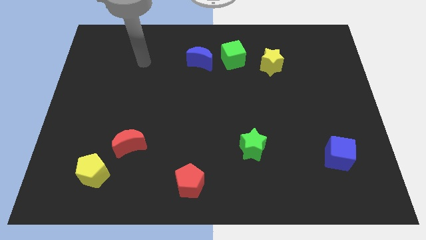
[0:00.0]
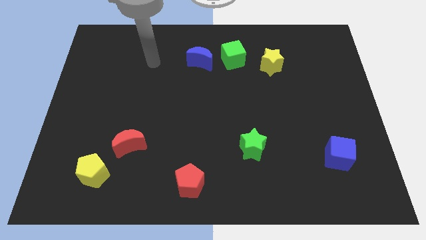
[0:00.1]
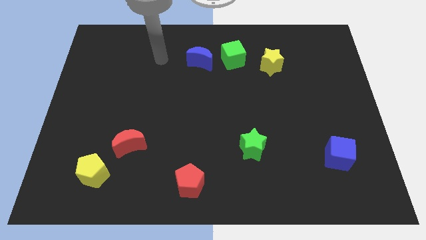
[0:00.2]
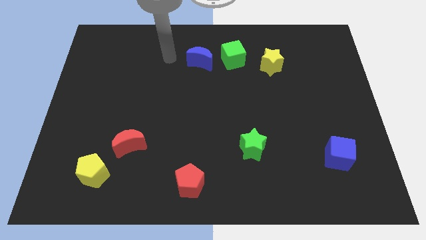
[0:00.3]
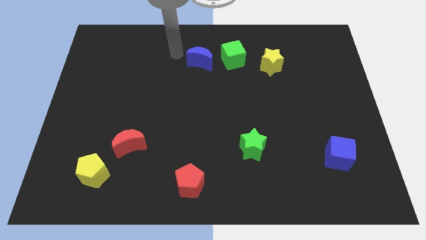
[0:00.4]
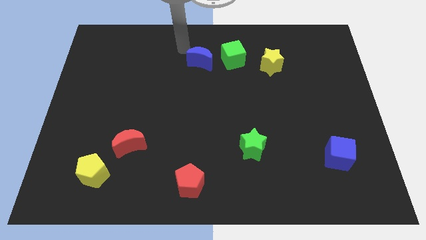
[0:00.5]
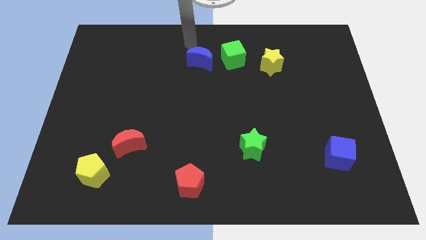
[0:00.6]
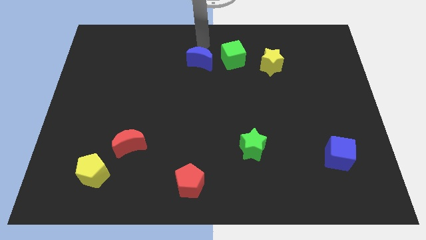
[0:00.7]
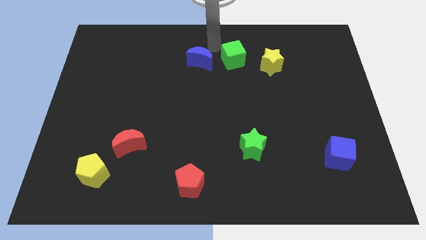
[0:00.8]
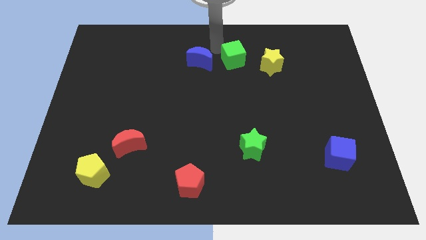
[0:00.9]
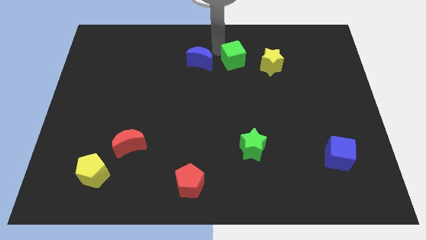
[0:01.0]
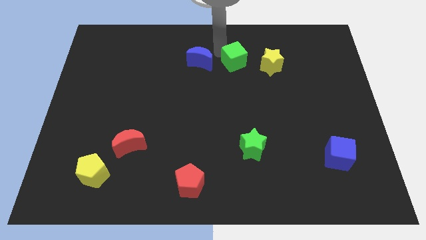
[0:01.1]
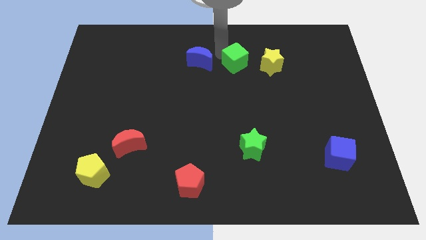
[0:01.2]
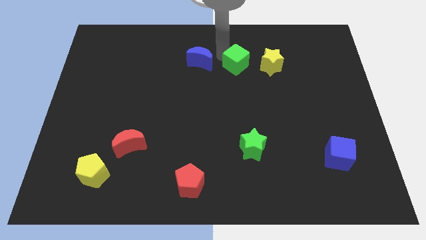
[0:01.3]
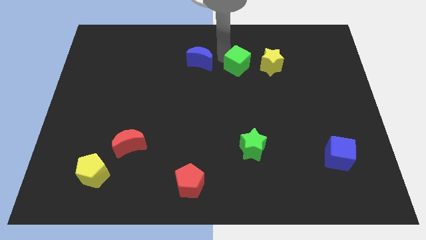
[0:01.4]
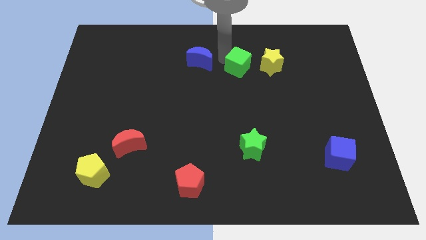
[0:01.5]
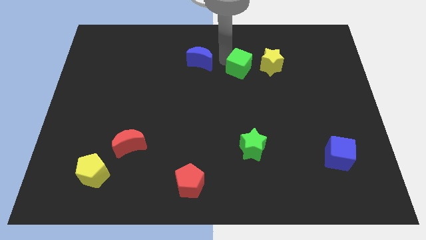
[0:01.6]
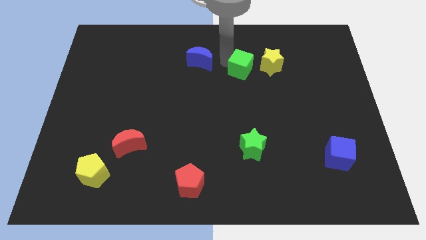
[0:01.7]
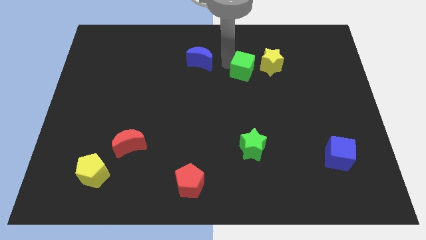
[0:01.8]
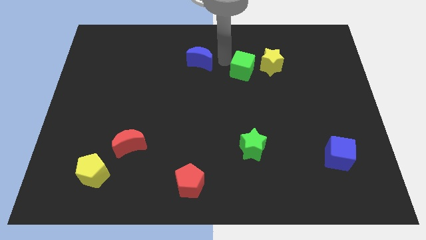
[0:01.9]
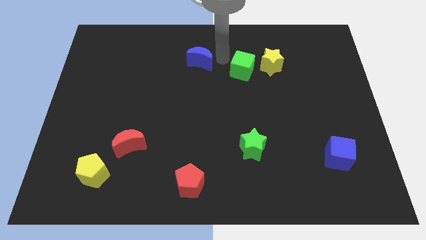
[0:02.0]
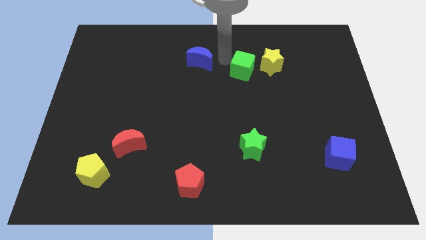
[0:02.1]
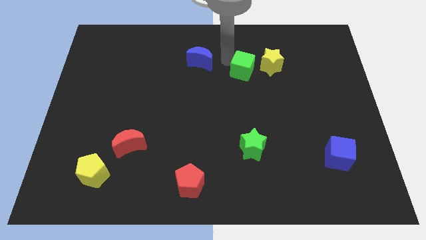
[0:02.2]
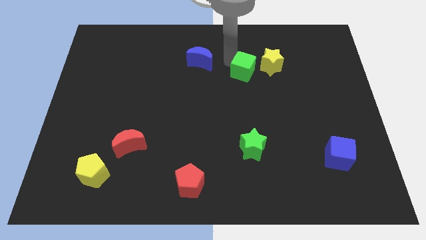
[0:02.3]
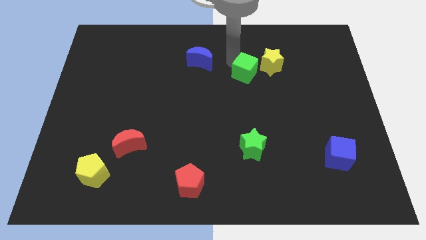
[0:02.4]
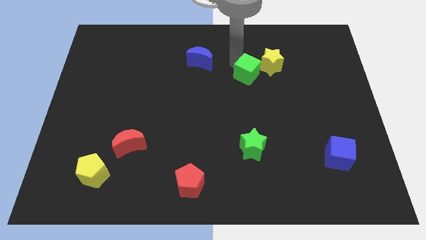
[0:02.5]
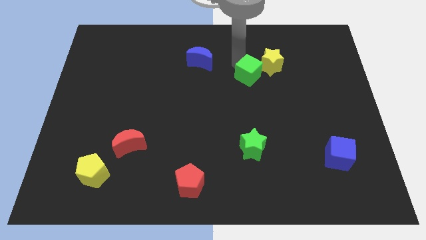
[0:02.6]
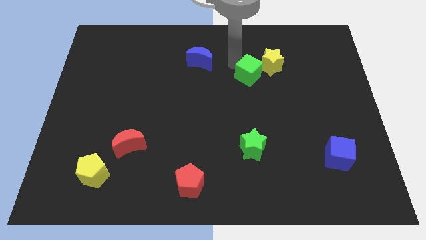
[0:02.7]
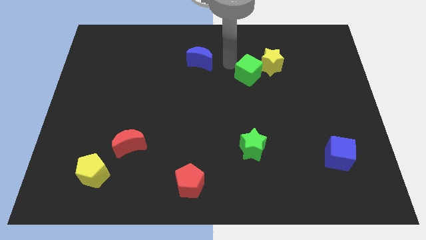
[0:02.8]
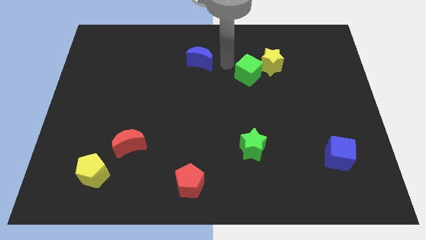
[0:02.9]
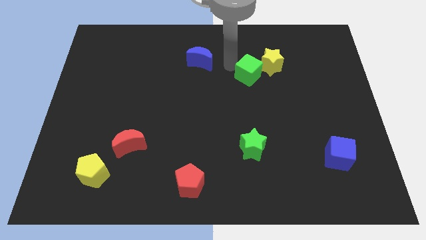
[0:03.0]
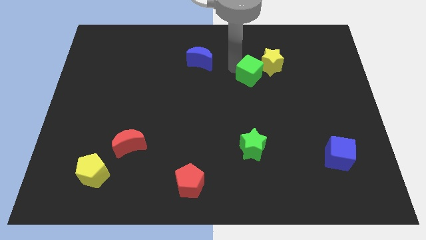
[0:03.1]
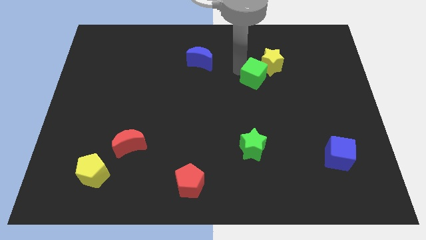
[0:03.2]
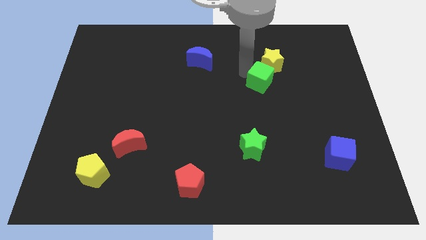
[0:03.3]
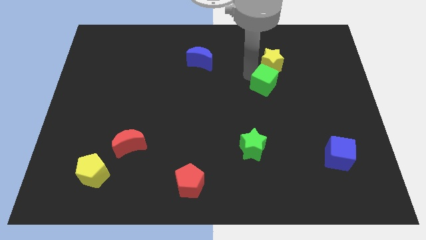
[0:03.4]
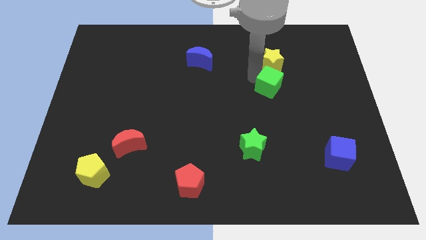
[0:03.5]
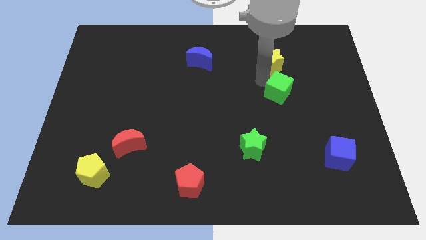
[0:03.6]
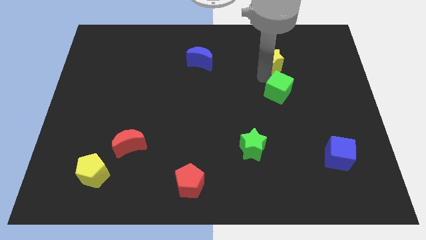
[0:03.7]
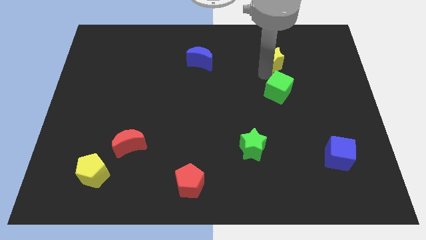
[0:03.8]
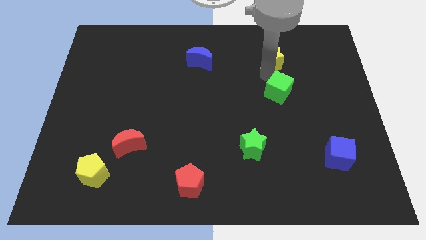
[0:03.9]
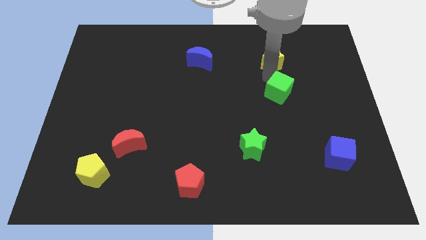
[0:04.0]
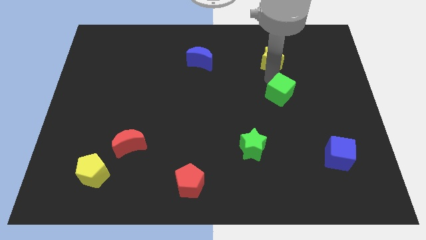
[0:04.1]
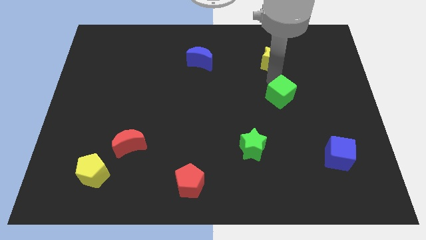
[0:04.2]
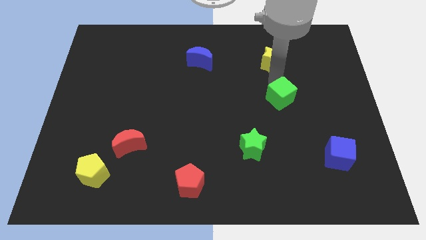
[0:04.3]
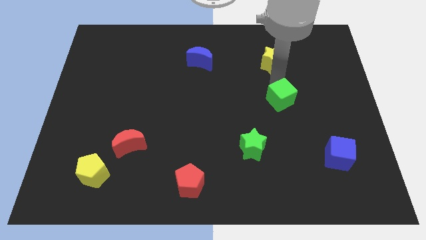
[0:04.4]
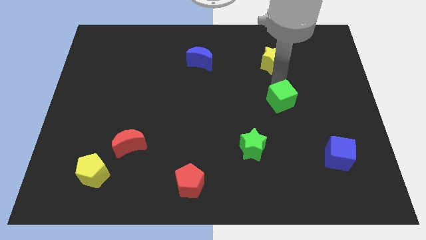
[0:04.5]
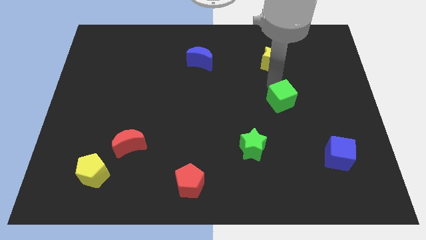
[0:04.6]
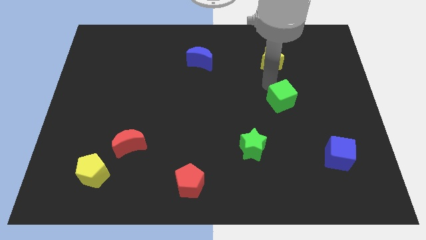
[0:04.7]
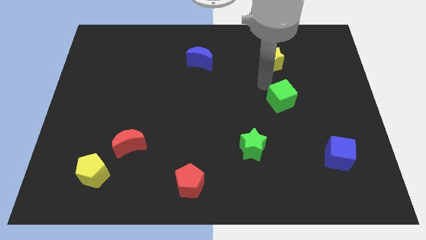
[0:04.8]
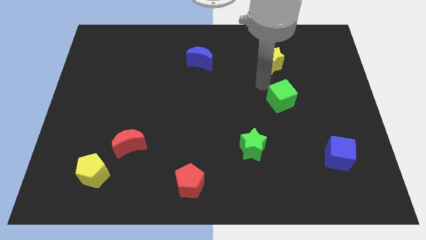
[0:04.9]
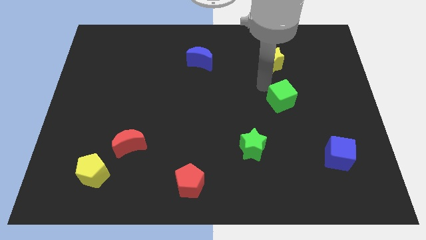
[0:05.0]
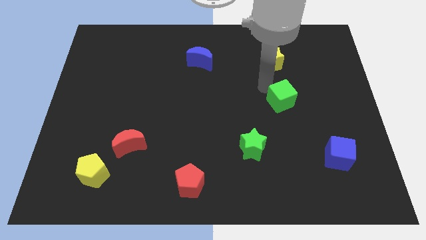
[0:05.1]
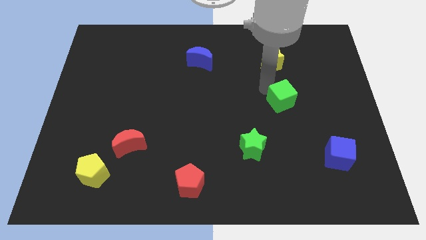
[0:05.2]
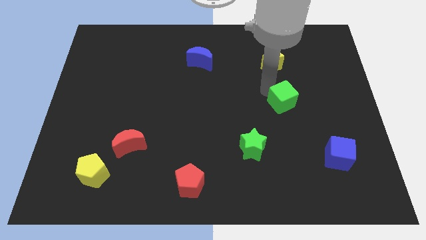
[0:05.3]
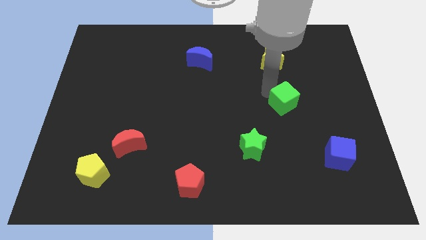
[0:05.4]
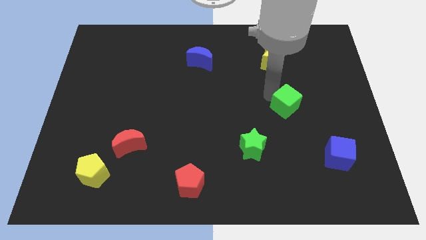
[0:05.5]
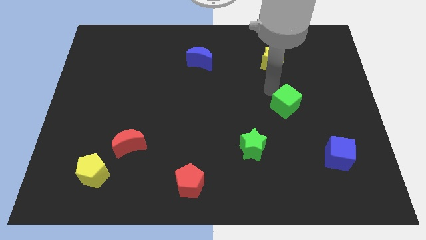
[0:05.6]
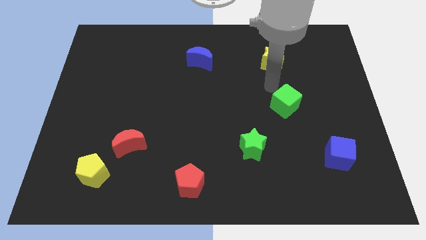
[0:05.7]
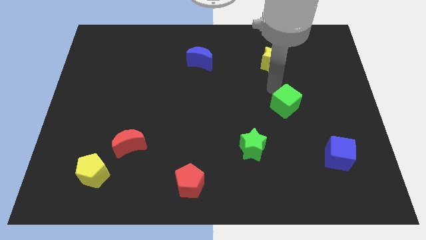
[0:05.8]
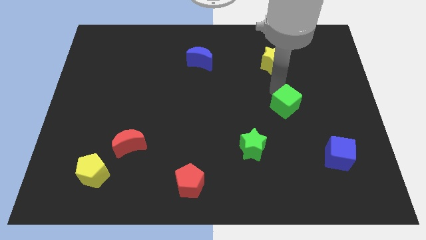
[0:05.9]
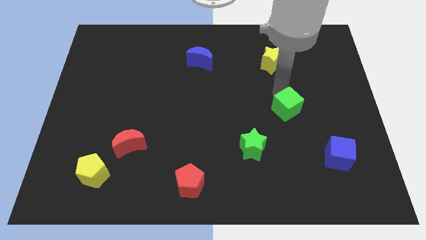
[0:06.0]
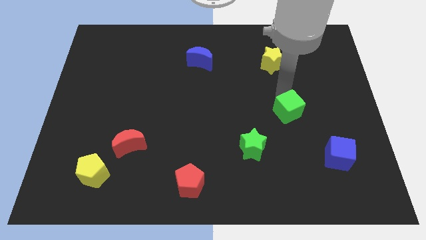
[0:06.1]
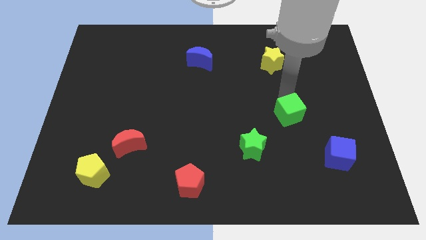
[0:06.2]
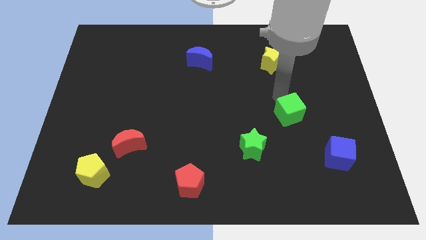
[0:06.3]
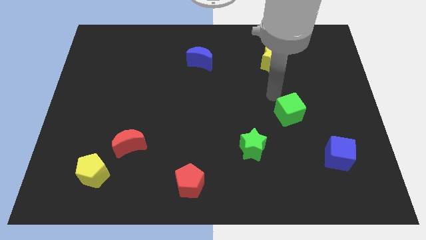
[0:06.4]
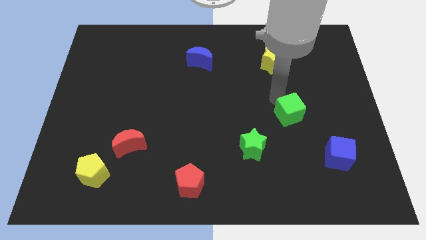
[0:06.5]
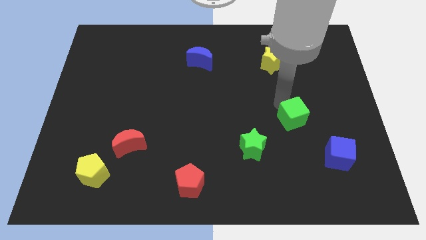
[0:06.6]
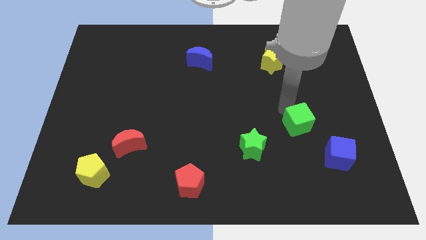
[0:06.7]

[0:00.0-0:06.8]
move the green cube to the top left of the blue cube

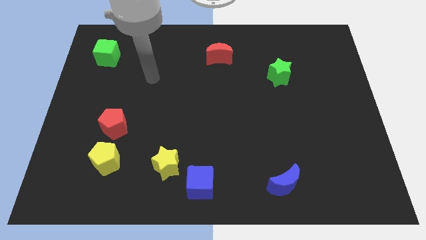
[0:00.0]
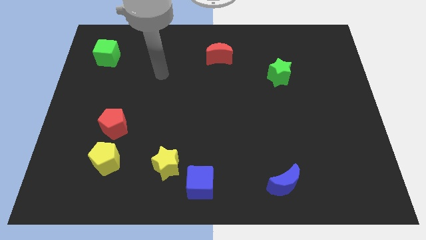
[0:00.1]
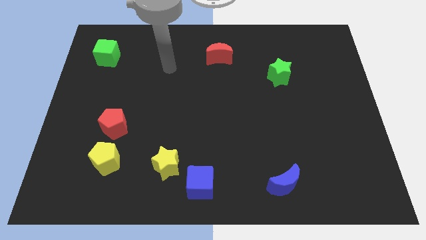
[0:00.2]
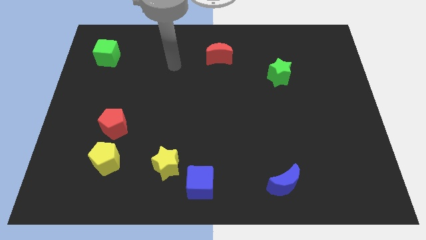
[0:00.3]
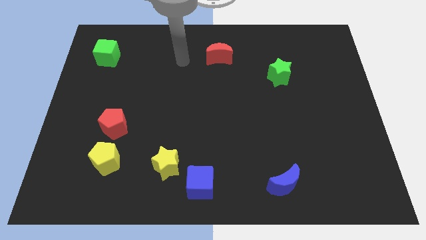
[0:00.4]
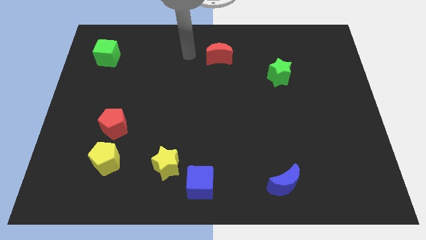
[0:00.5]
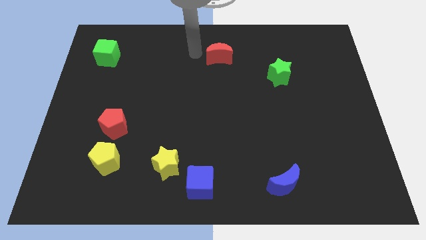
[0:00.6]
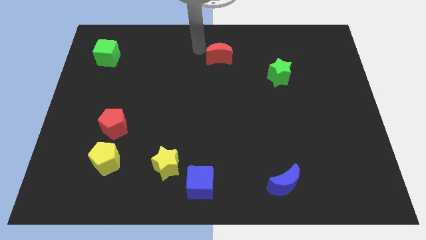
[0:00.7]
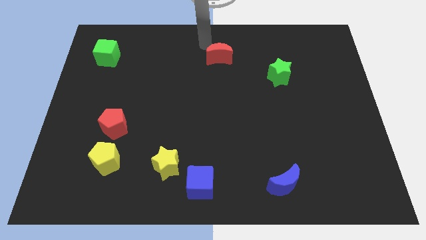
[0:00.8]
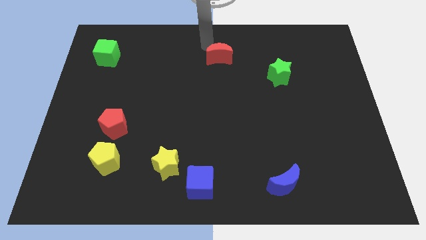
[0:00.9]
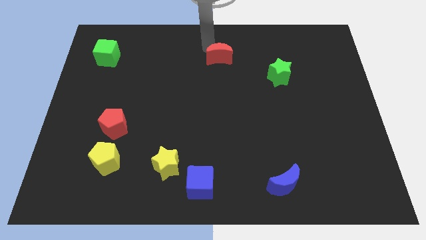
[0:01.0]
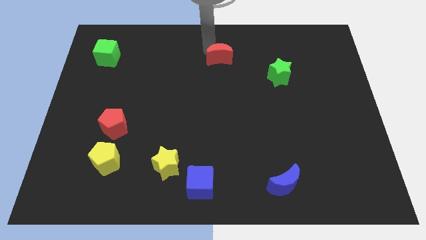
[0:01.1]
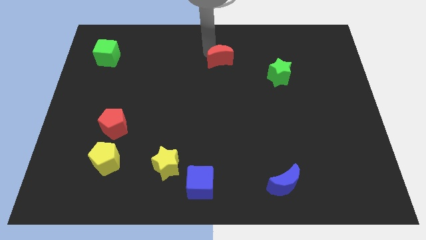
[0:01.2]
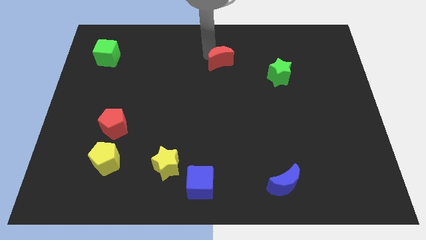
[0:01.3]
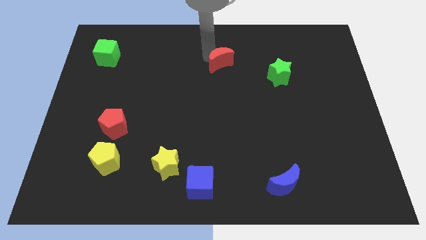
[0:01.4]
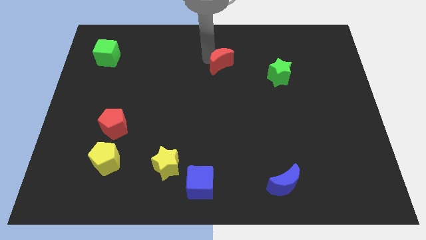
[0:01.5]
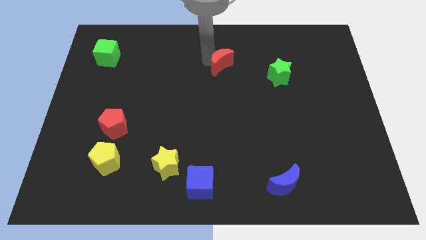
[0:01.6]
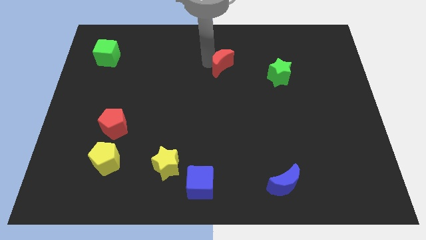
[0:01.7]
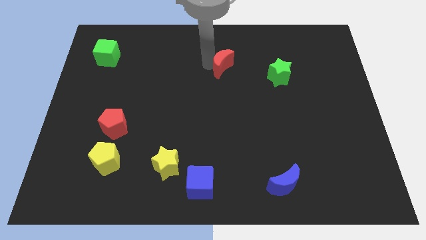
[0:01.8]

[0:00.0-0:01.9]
push the red moon to the left side of the green star
